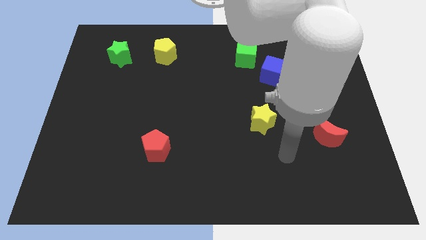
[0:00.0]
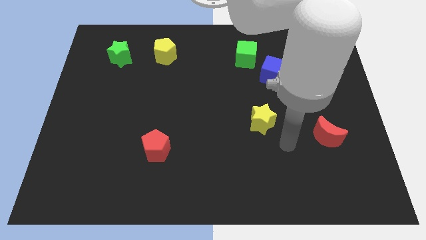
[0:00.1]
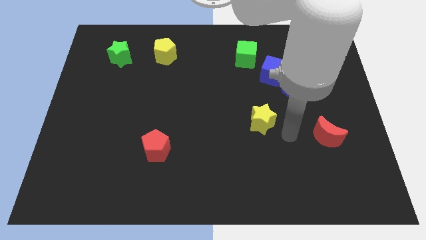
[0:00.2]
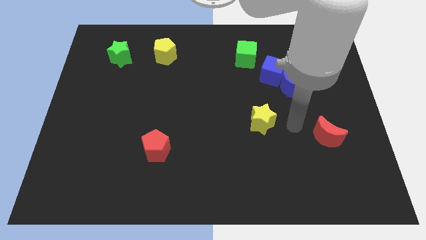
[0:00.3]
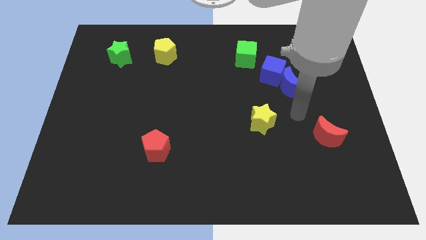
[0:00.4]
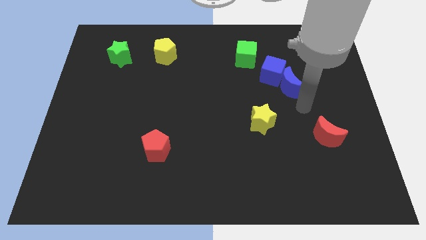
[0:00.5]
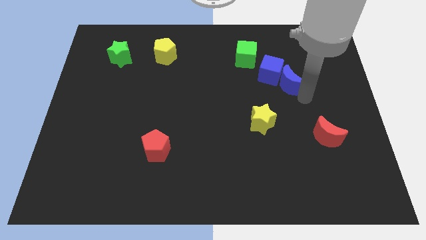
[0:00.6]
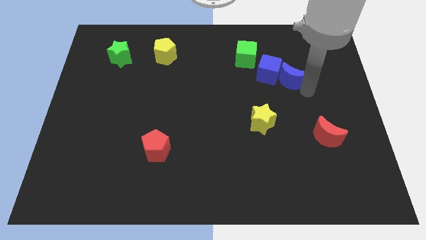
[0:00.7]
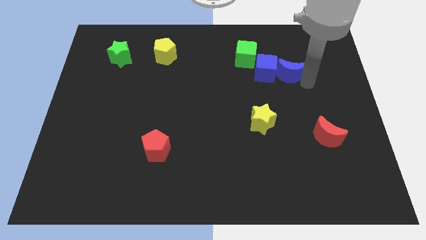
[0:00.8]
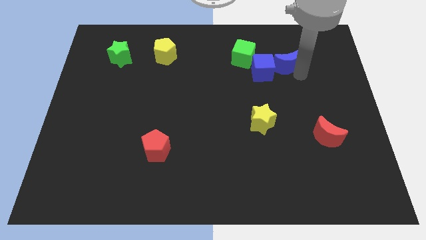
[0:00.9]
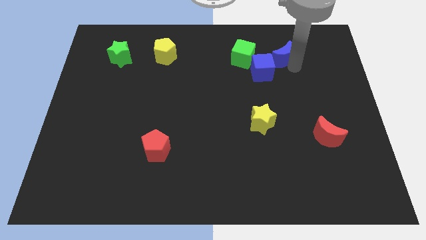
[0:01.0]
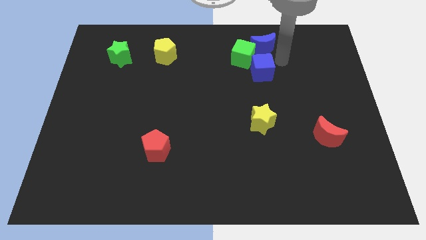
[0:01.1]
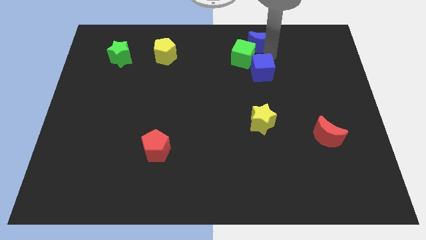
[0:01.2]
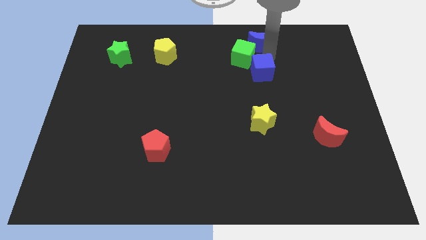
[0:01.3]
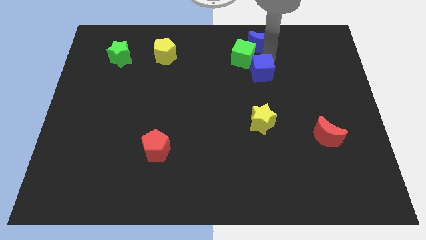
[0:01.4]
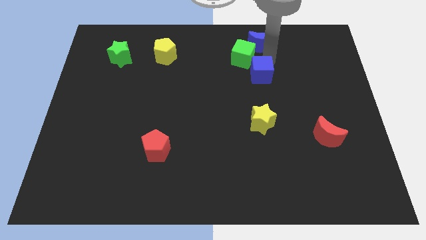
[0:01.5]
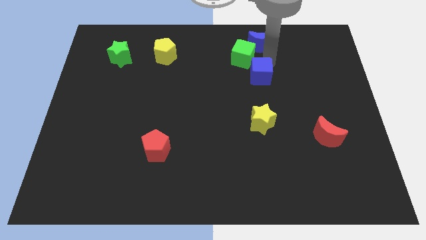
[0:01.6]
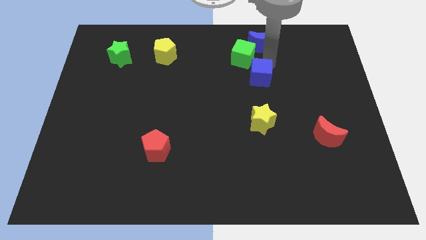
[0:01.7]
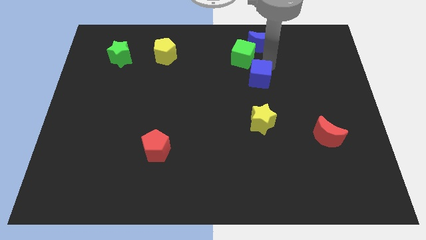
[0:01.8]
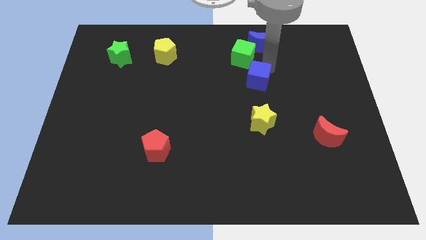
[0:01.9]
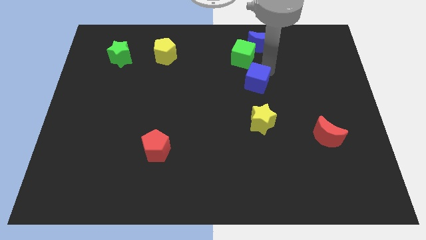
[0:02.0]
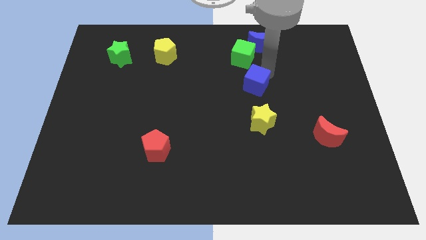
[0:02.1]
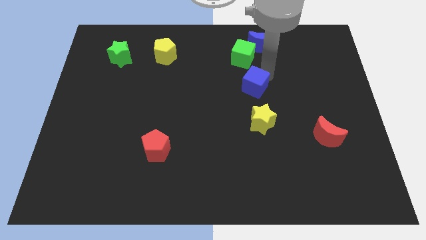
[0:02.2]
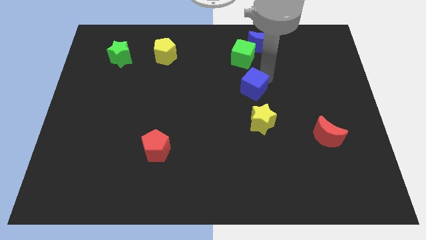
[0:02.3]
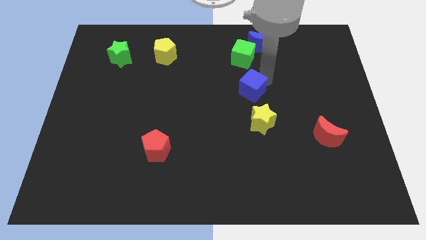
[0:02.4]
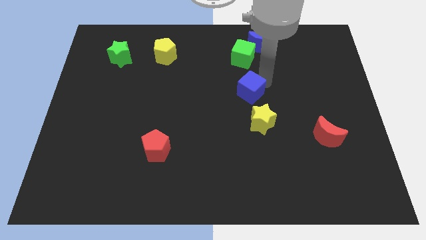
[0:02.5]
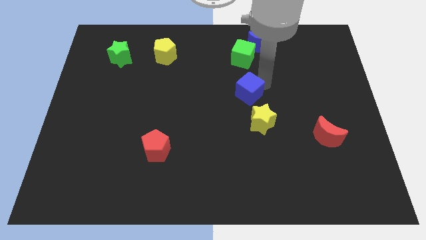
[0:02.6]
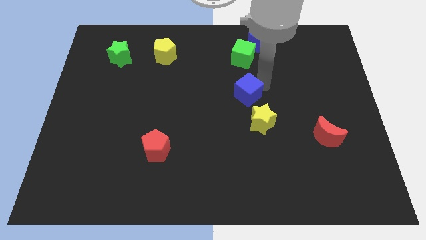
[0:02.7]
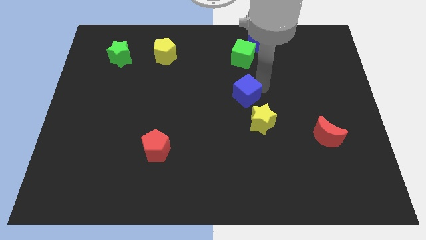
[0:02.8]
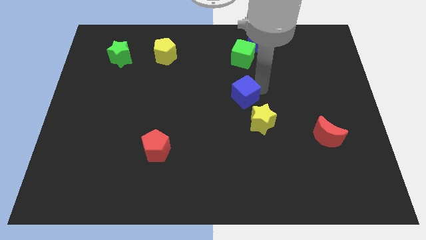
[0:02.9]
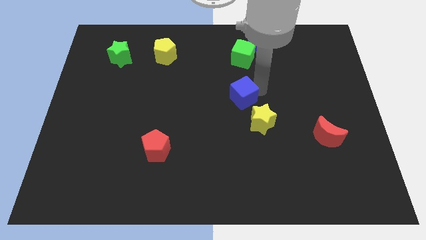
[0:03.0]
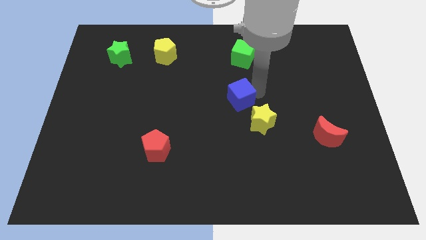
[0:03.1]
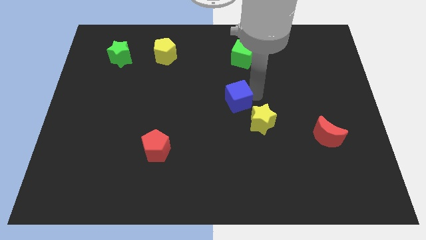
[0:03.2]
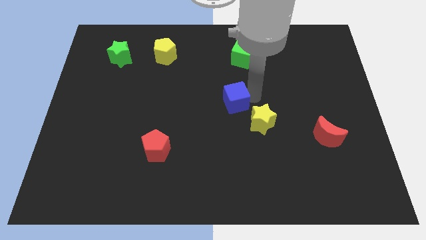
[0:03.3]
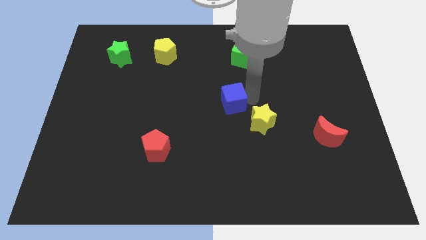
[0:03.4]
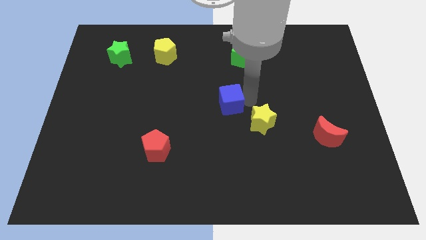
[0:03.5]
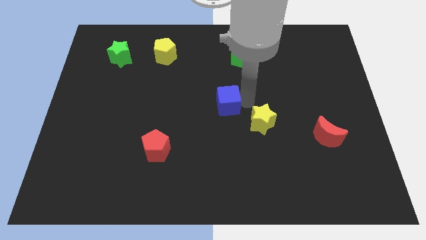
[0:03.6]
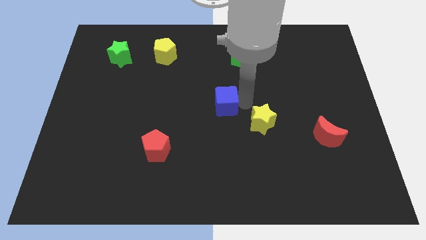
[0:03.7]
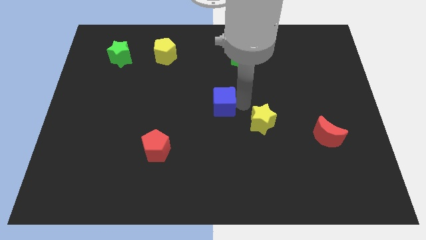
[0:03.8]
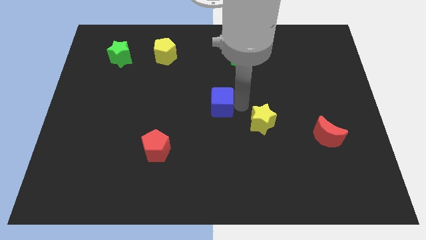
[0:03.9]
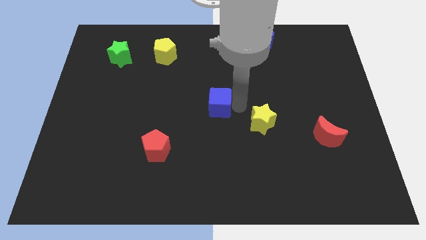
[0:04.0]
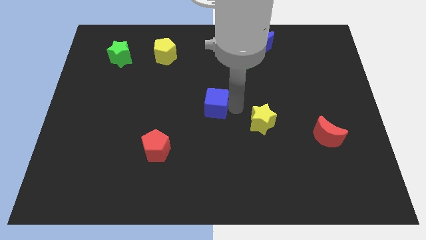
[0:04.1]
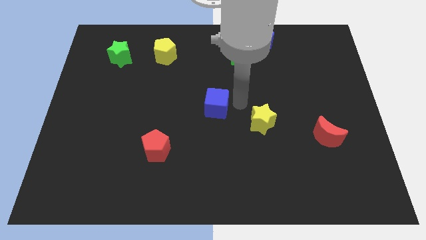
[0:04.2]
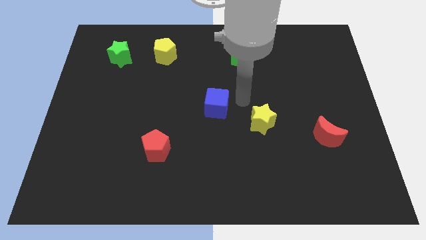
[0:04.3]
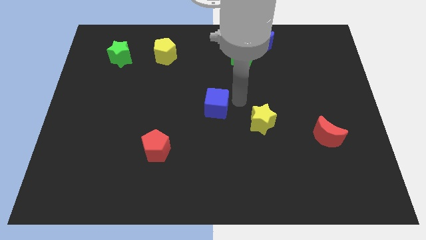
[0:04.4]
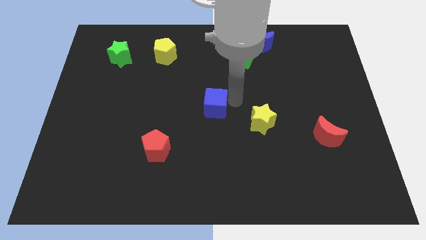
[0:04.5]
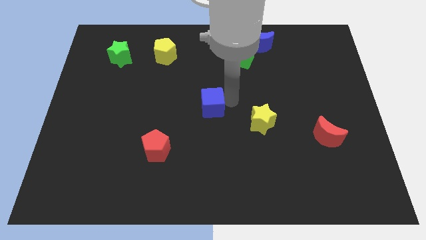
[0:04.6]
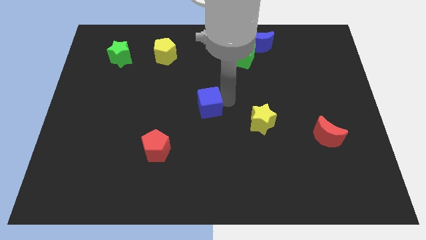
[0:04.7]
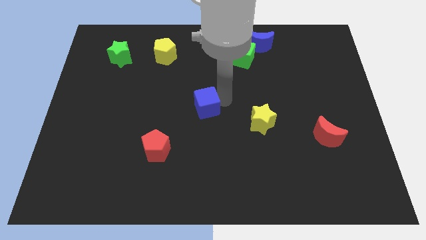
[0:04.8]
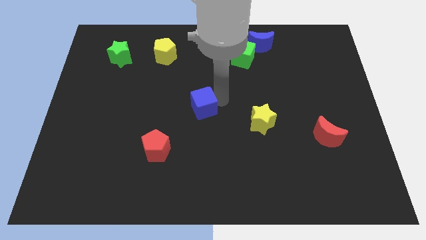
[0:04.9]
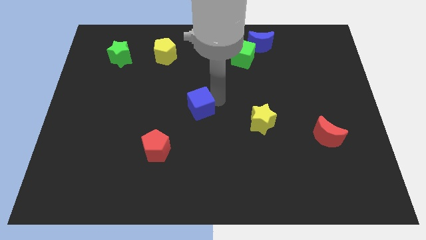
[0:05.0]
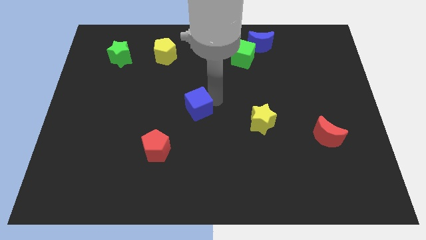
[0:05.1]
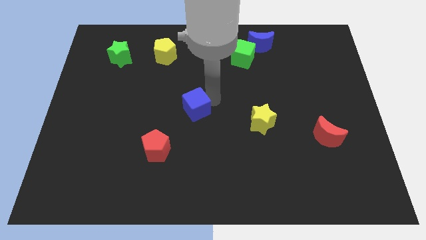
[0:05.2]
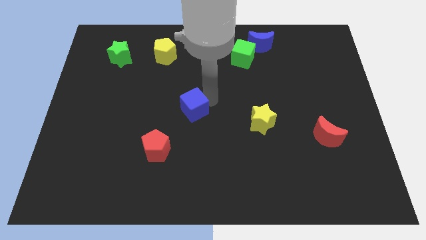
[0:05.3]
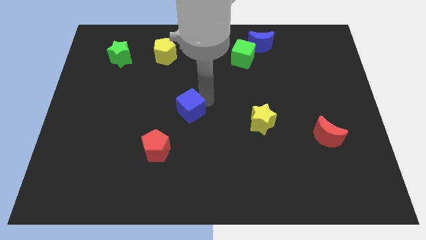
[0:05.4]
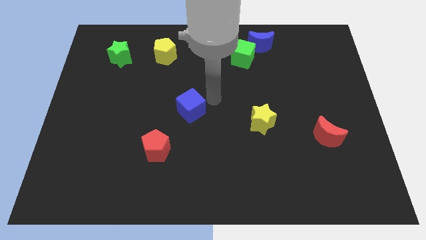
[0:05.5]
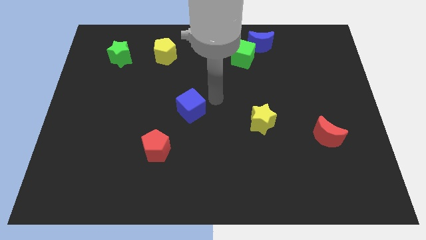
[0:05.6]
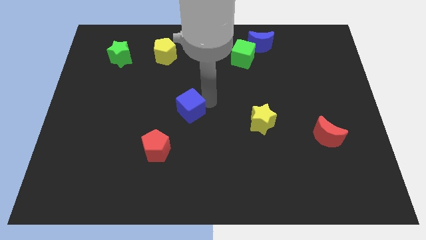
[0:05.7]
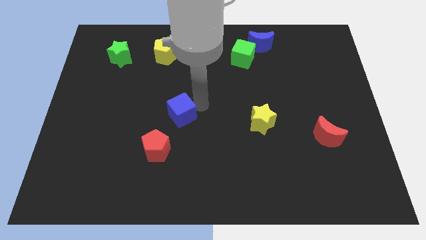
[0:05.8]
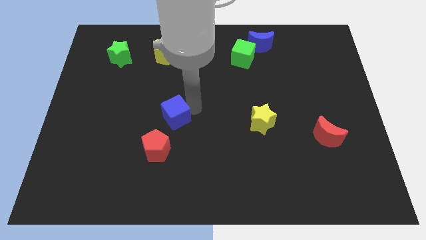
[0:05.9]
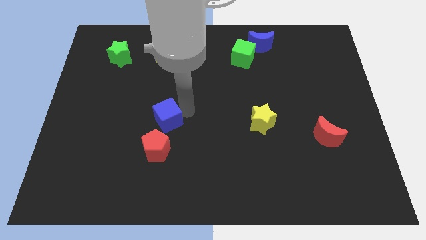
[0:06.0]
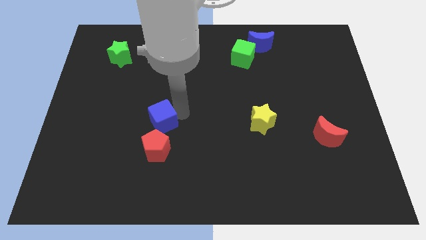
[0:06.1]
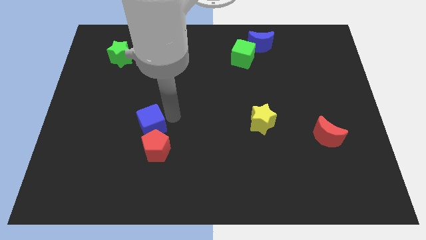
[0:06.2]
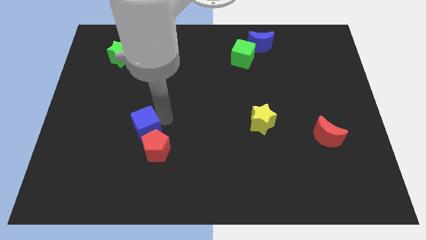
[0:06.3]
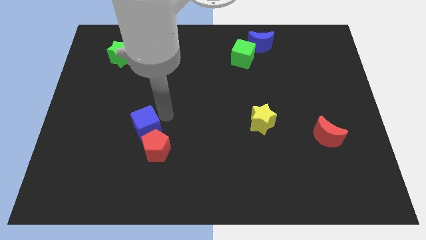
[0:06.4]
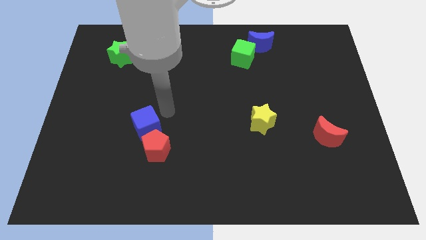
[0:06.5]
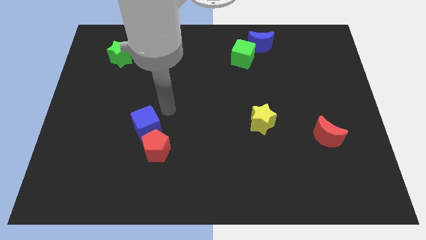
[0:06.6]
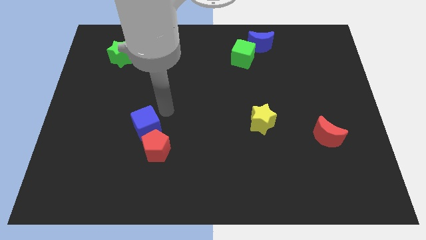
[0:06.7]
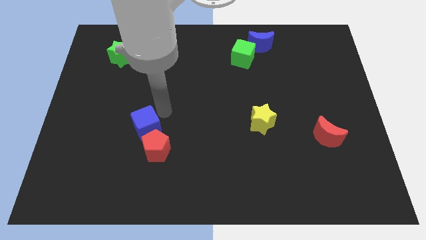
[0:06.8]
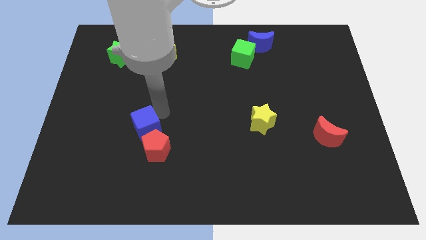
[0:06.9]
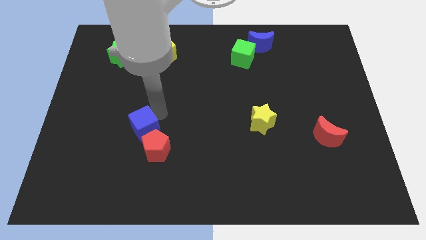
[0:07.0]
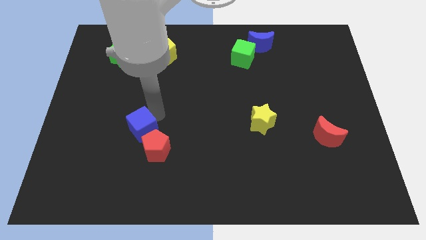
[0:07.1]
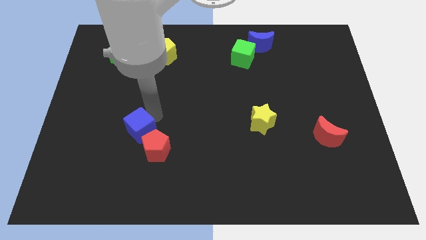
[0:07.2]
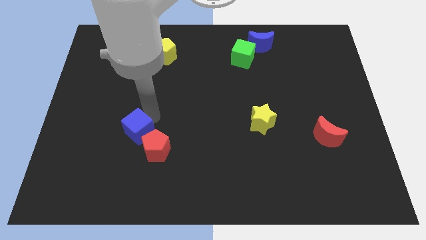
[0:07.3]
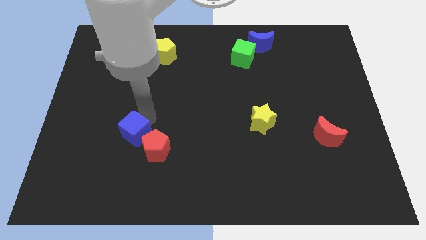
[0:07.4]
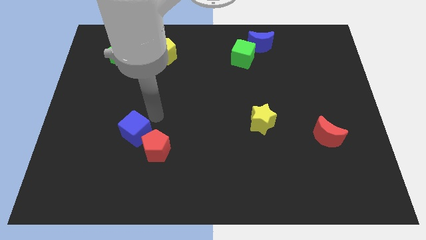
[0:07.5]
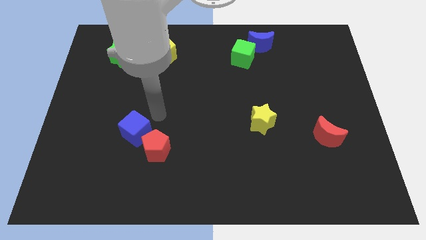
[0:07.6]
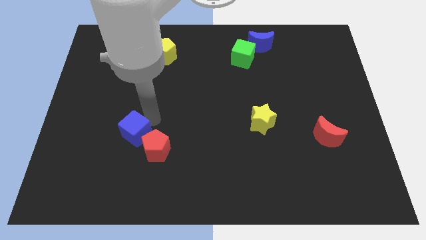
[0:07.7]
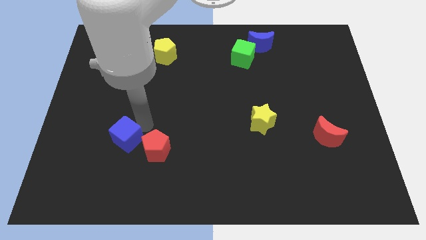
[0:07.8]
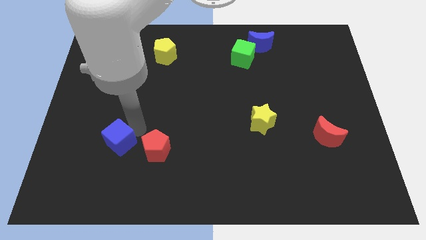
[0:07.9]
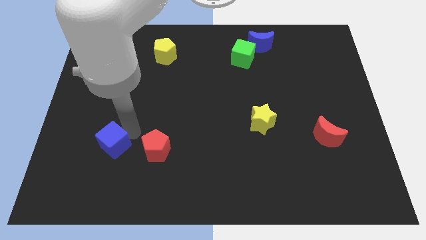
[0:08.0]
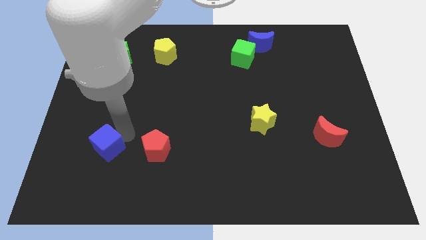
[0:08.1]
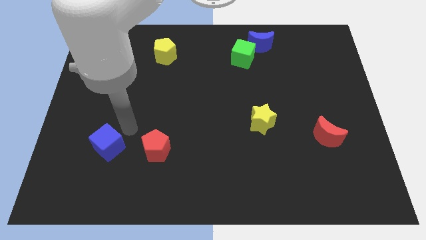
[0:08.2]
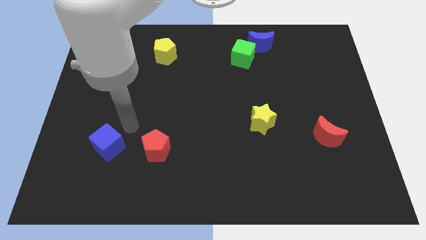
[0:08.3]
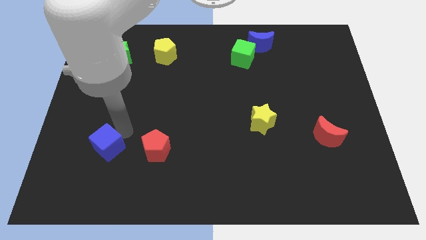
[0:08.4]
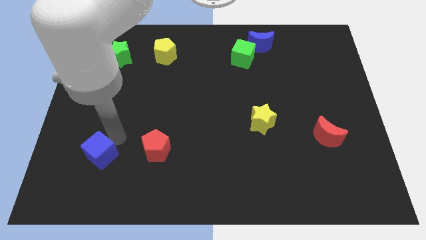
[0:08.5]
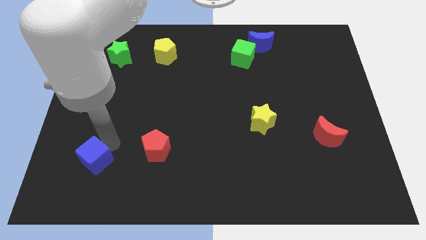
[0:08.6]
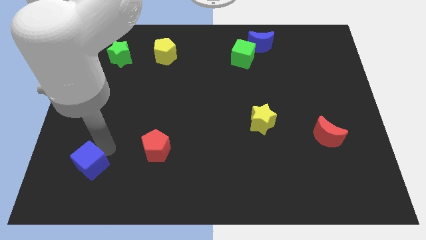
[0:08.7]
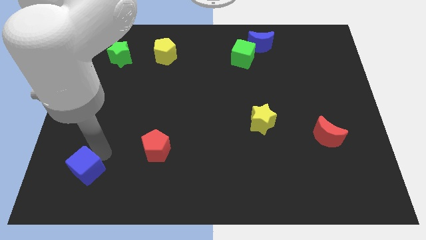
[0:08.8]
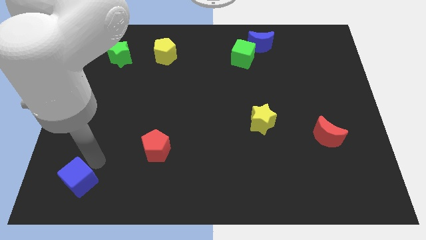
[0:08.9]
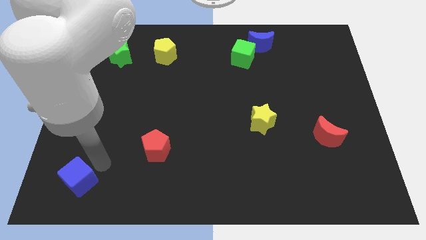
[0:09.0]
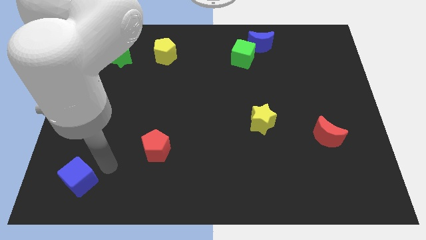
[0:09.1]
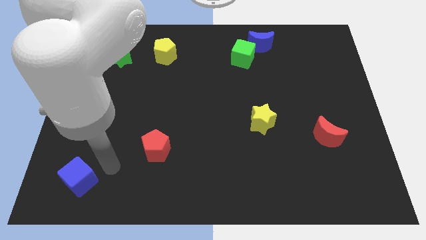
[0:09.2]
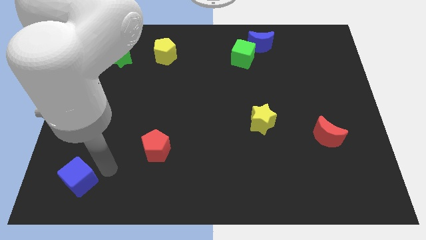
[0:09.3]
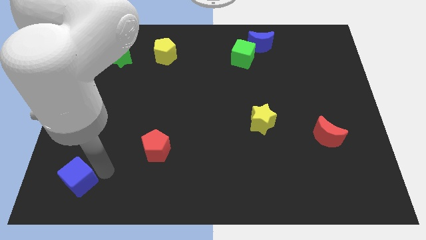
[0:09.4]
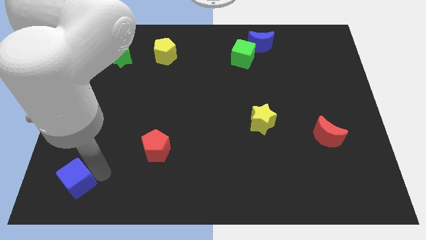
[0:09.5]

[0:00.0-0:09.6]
move the blue cube to the lower left corner
